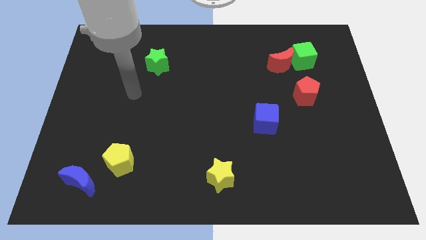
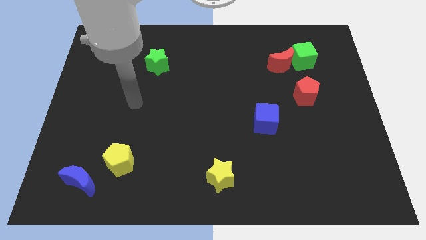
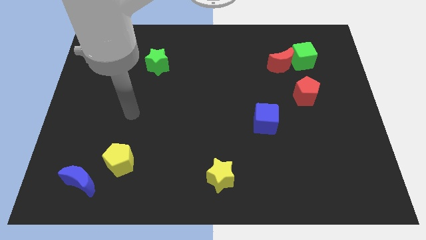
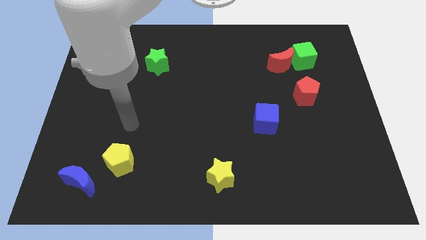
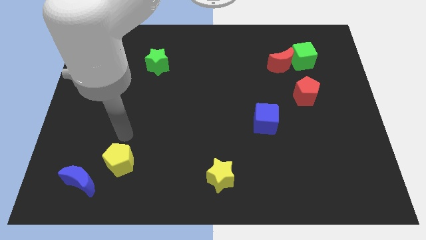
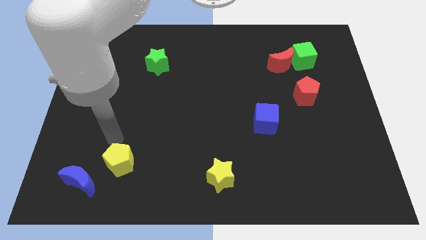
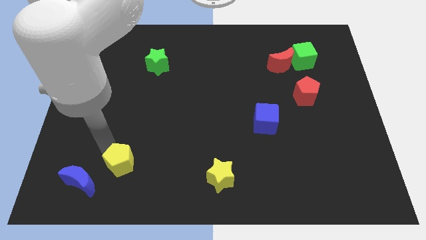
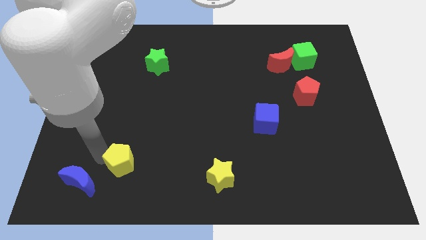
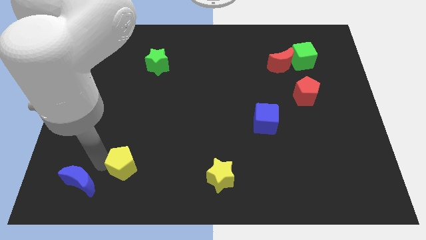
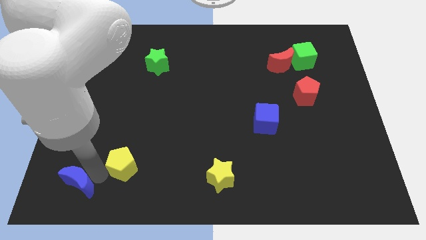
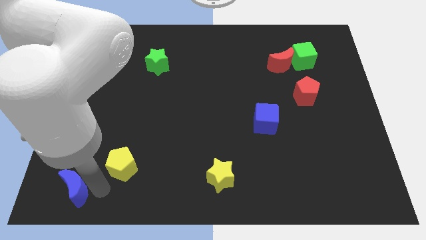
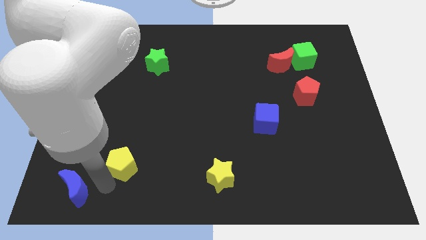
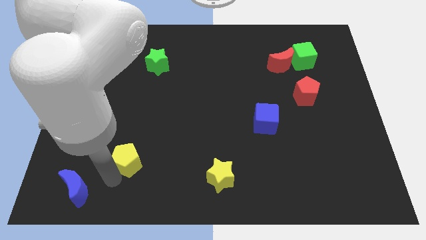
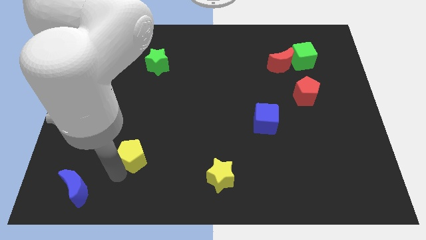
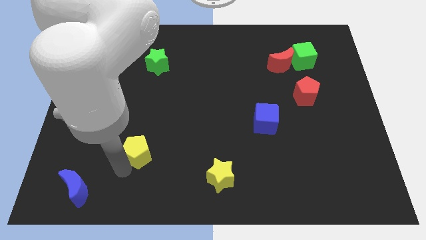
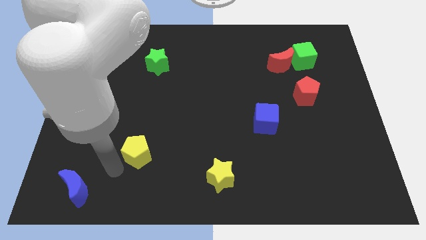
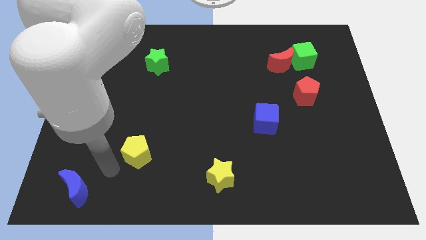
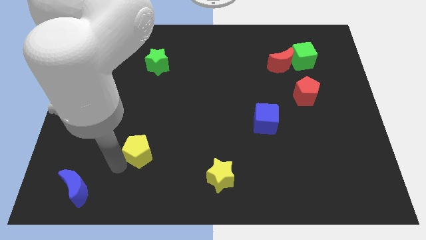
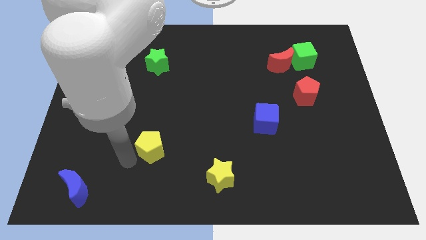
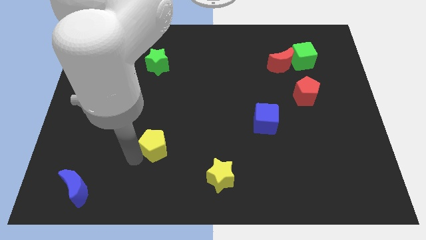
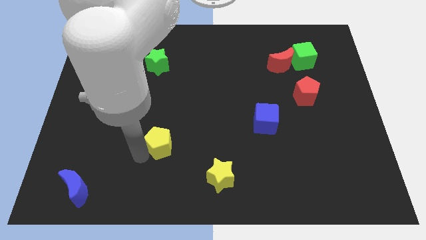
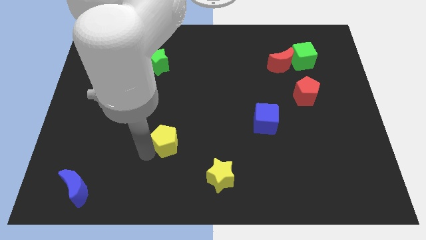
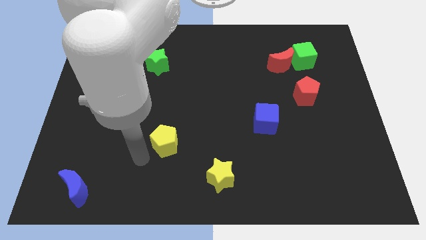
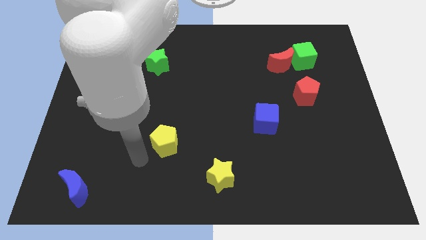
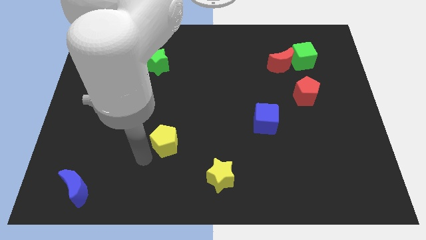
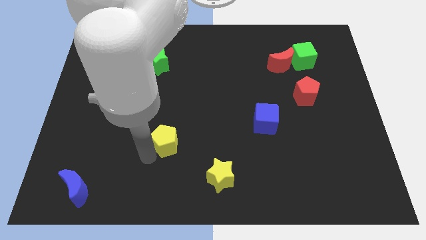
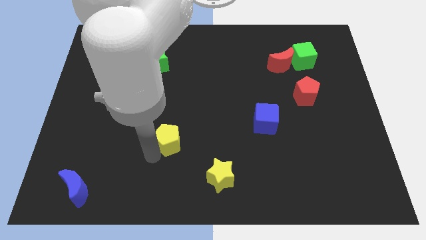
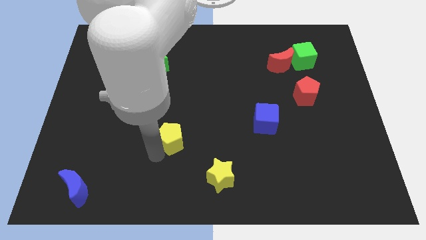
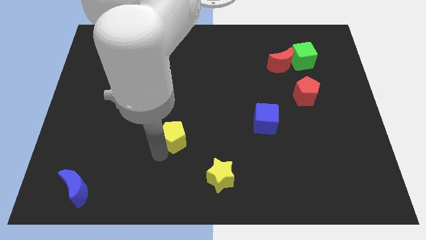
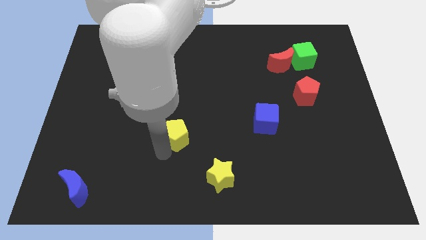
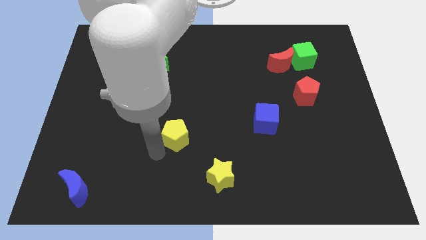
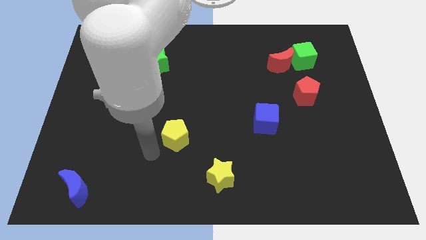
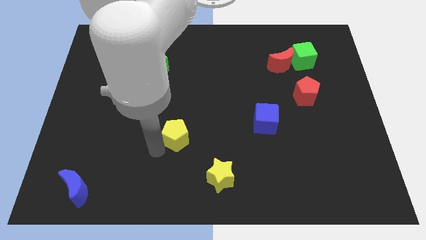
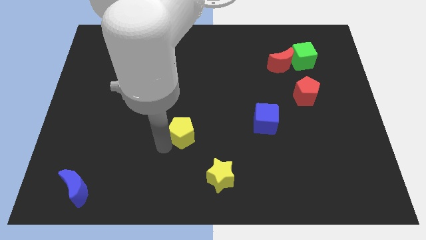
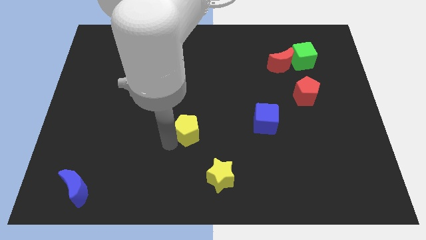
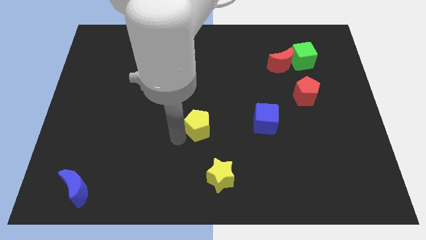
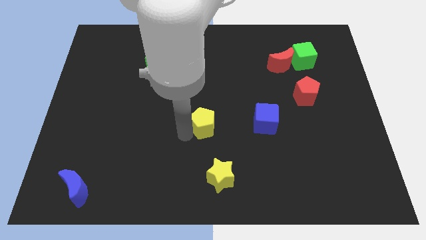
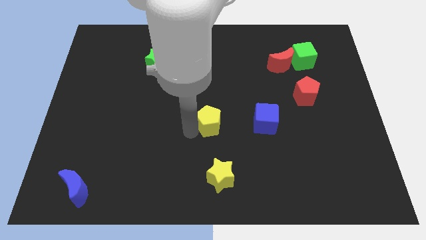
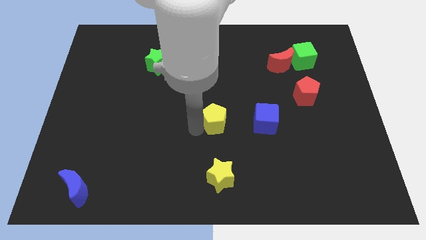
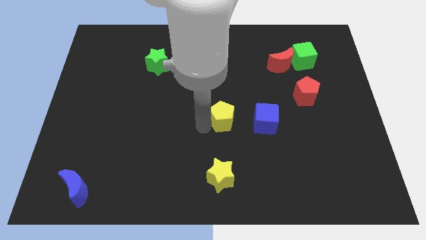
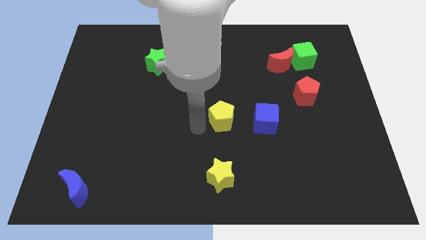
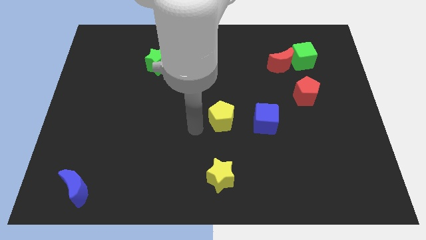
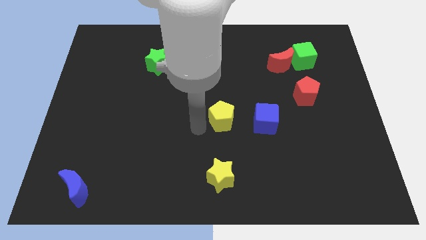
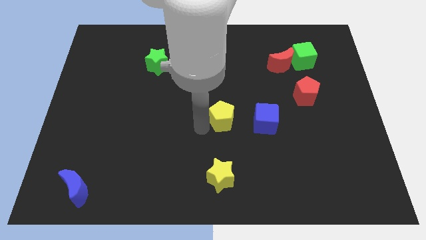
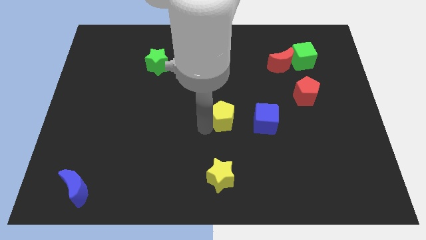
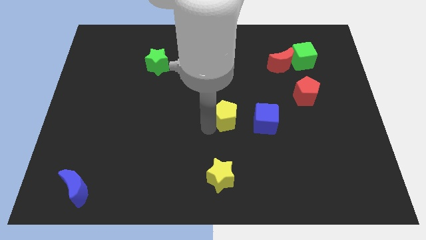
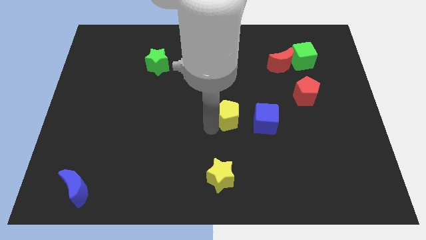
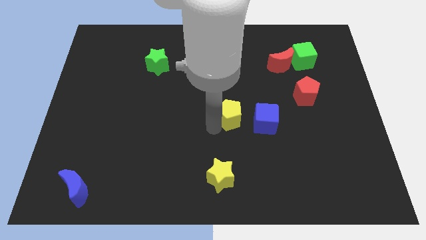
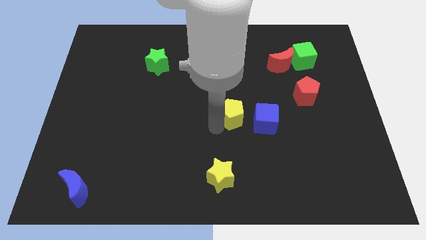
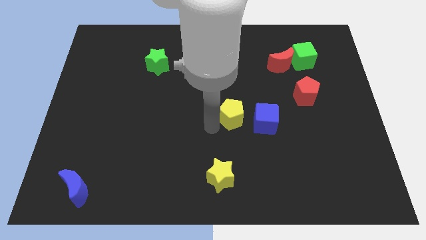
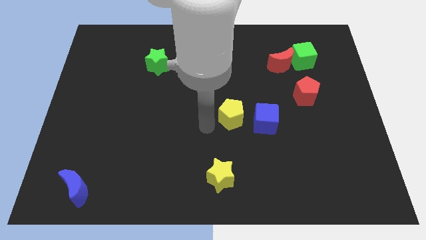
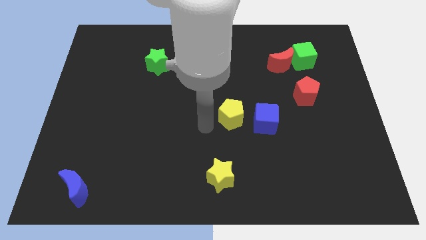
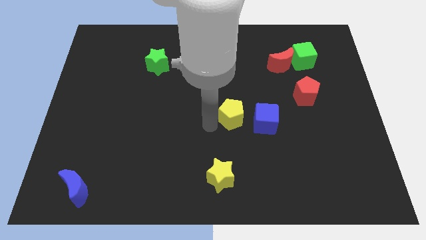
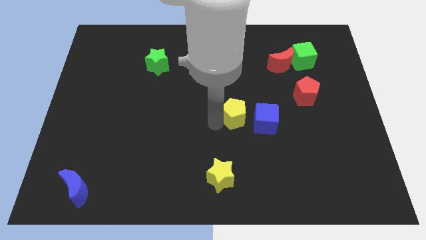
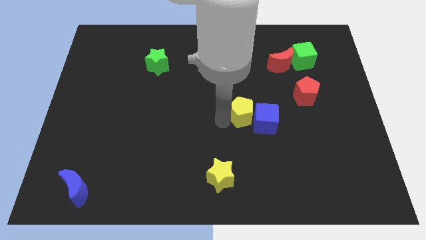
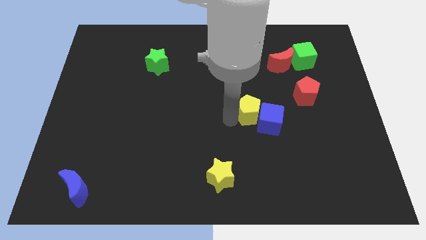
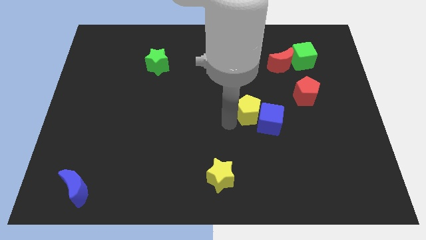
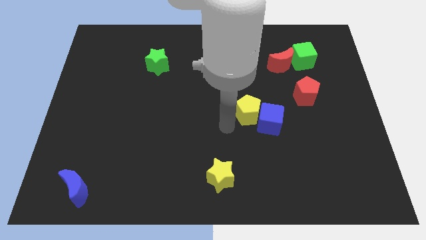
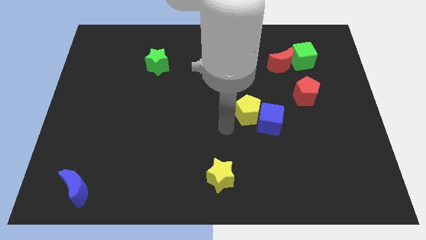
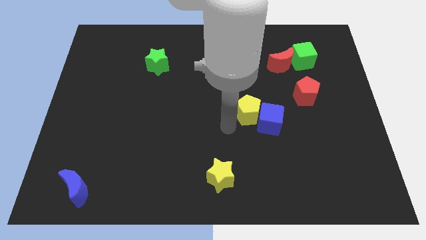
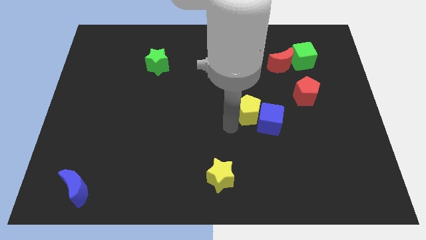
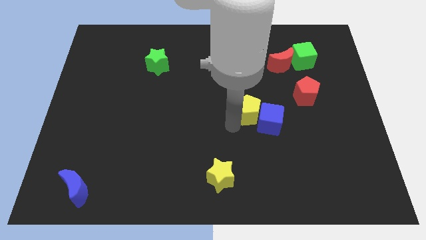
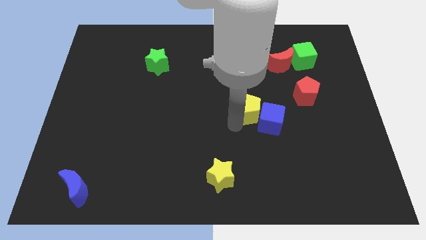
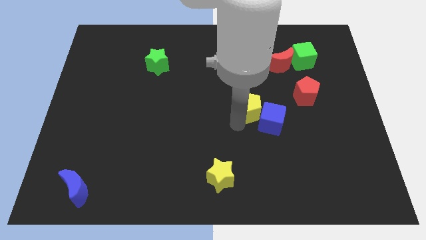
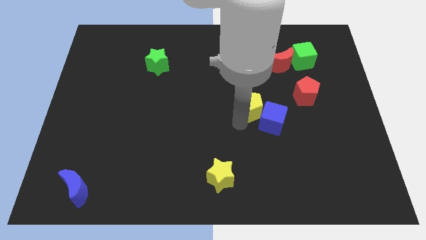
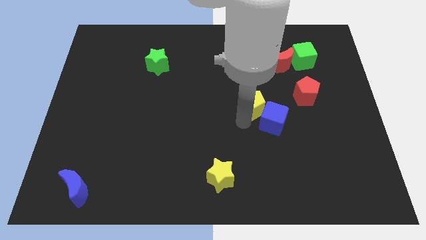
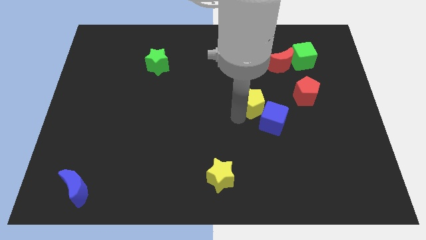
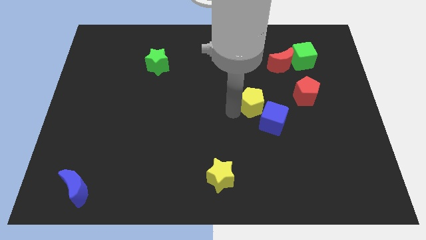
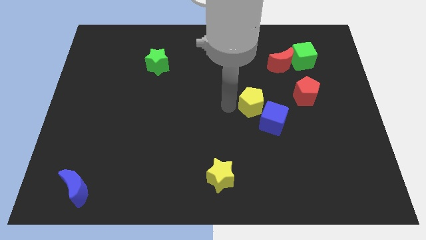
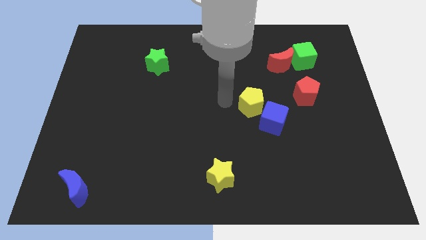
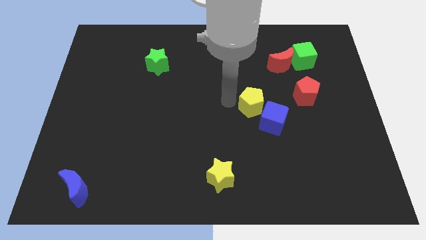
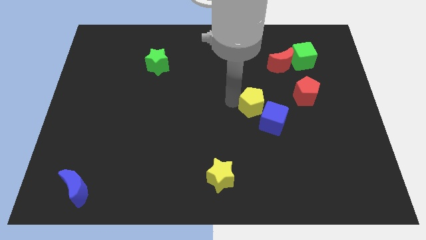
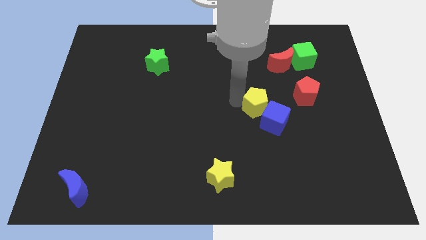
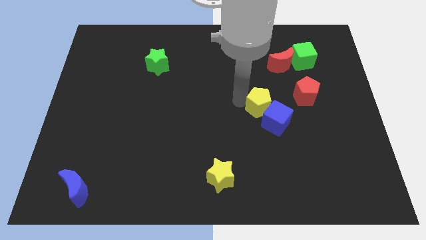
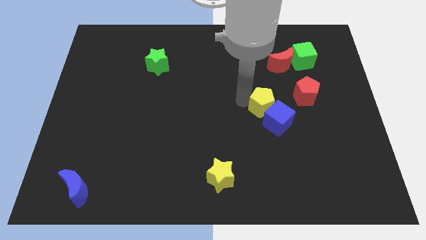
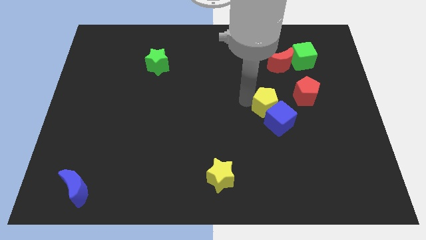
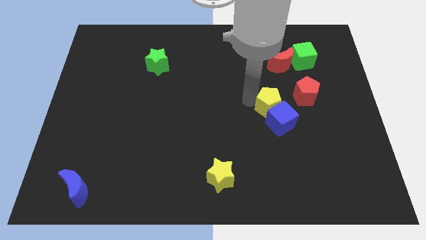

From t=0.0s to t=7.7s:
move the yellow pentagon diagonally down and to the left of the red pentagon
